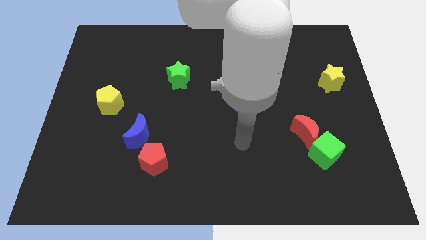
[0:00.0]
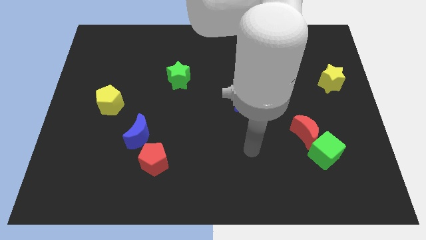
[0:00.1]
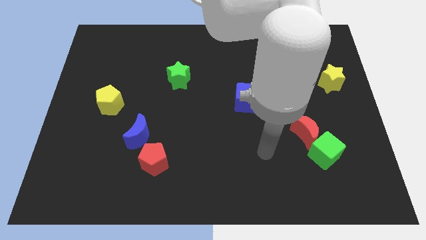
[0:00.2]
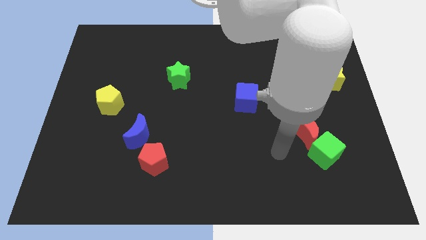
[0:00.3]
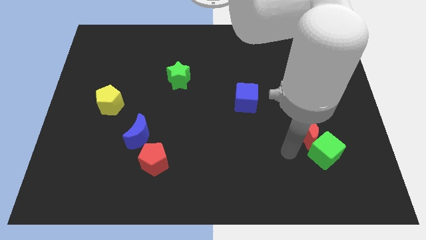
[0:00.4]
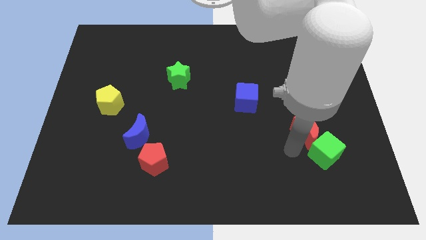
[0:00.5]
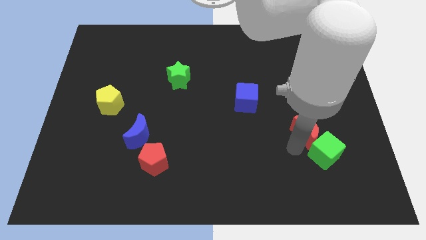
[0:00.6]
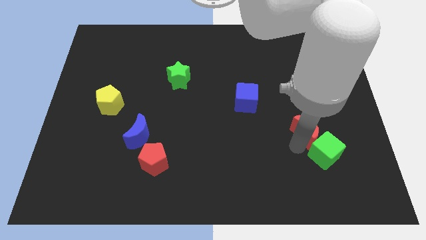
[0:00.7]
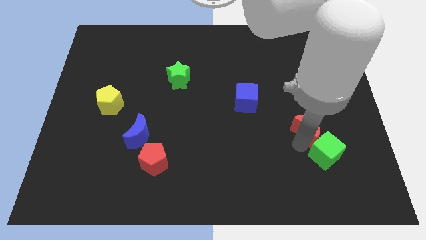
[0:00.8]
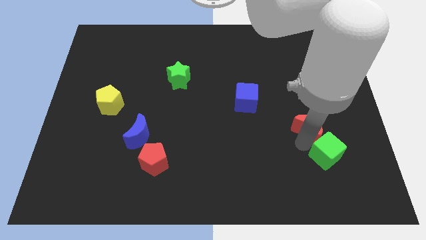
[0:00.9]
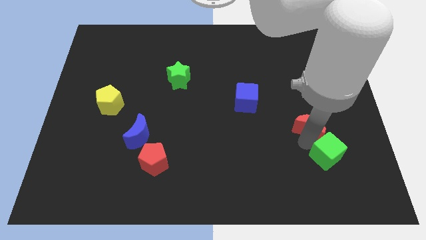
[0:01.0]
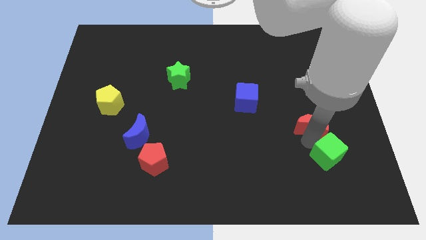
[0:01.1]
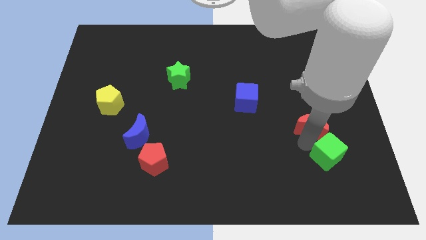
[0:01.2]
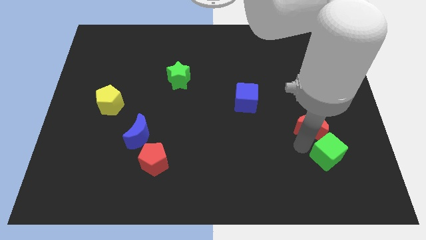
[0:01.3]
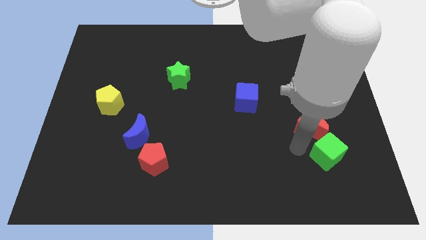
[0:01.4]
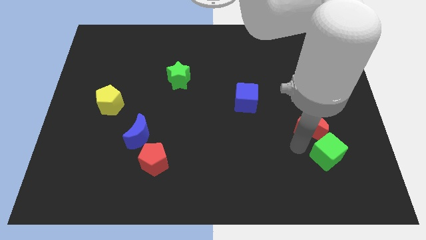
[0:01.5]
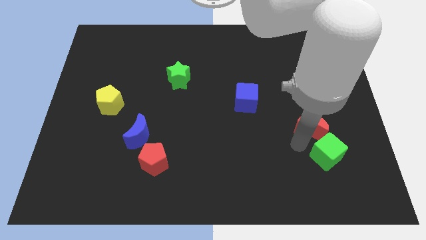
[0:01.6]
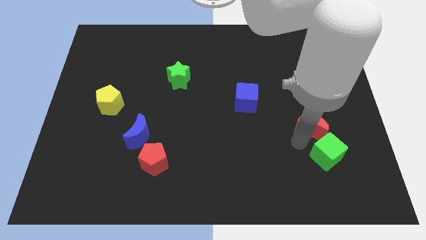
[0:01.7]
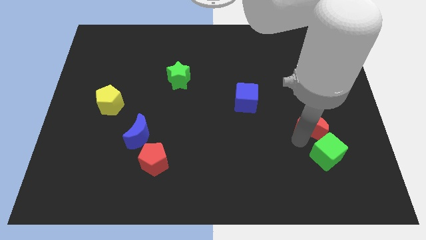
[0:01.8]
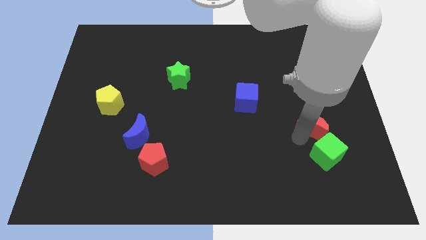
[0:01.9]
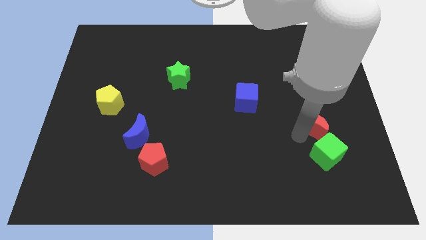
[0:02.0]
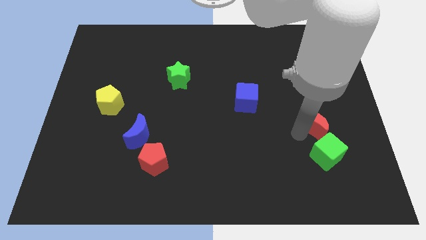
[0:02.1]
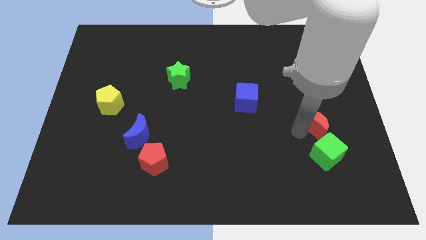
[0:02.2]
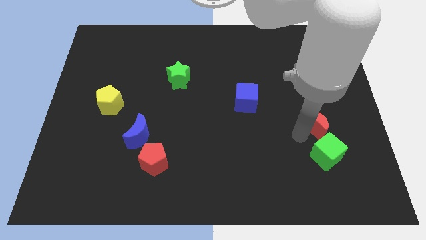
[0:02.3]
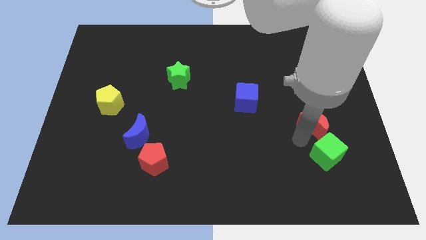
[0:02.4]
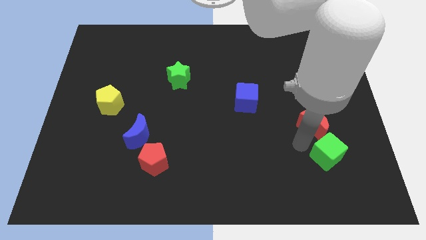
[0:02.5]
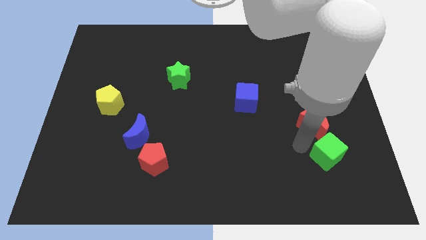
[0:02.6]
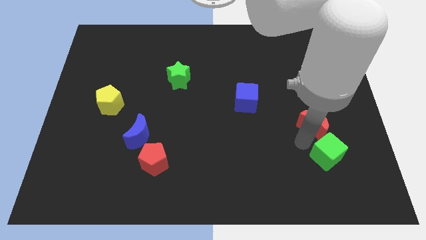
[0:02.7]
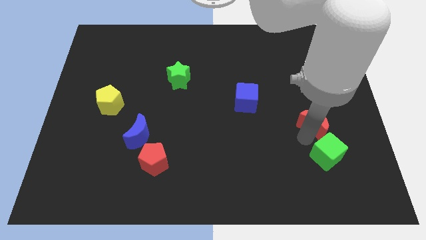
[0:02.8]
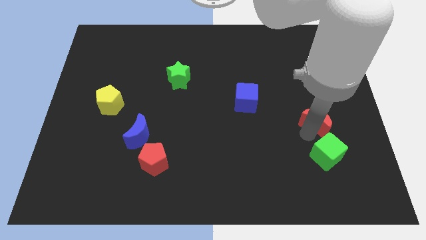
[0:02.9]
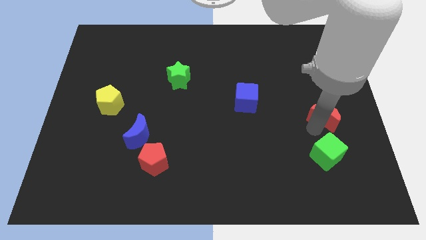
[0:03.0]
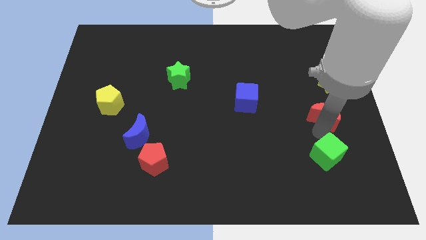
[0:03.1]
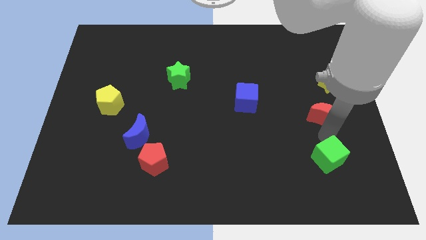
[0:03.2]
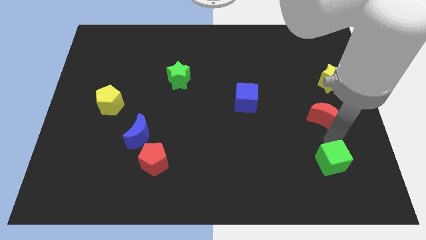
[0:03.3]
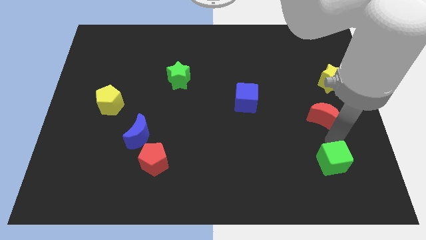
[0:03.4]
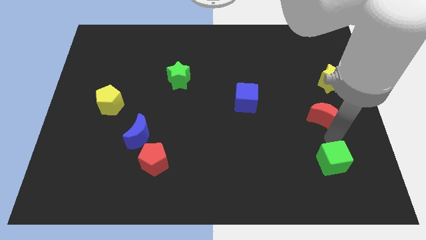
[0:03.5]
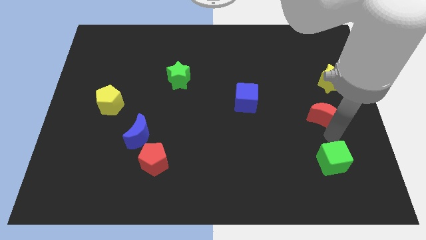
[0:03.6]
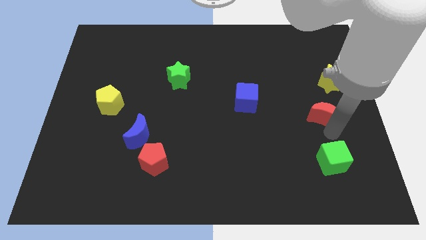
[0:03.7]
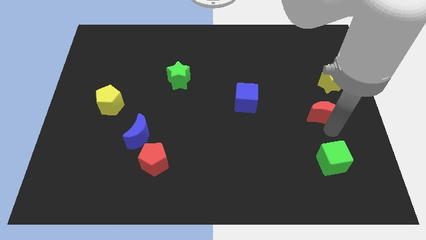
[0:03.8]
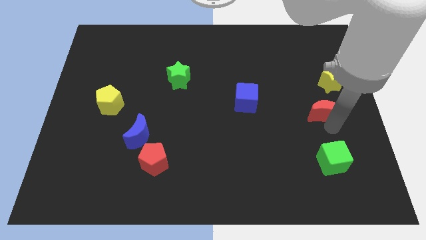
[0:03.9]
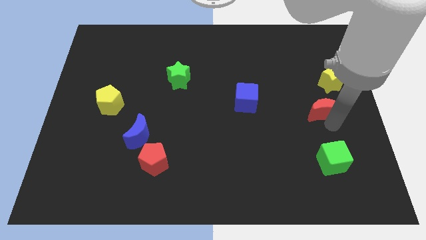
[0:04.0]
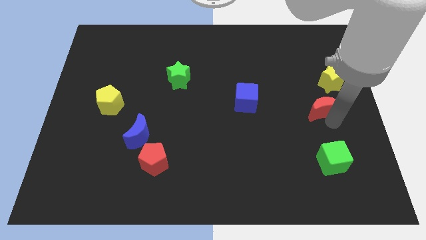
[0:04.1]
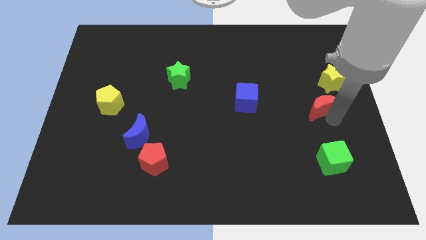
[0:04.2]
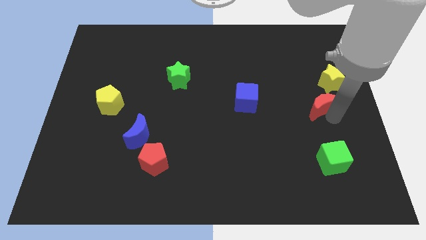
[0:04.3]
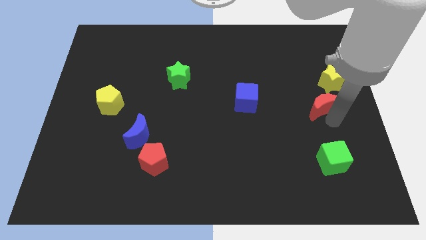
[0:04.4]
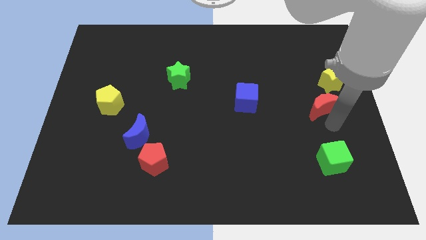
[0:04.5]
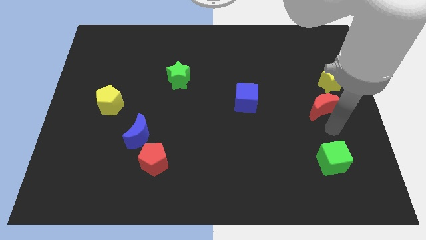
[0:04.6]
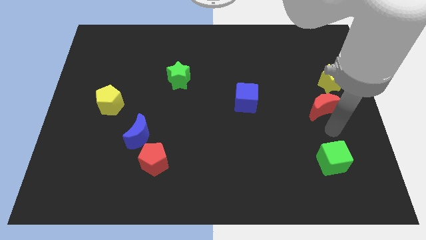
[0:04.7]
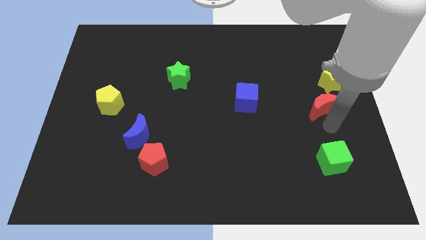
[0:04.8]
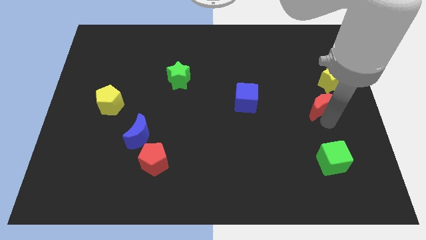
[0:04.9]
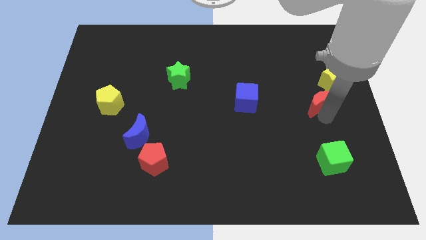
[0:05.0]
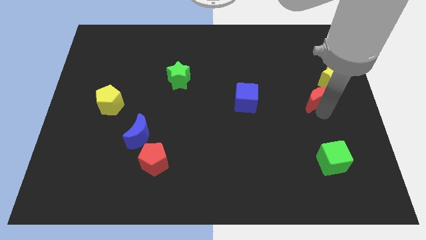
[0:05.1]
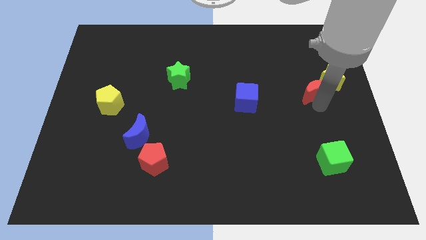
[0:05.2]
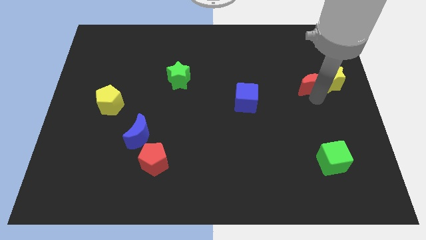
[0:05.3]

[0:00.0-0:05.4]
put the red moon to the top left side of the yellow star

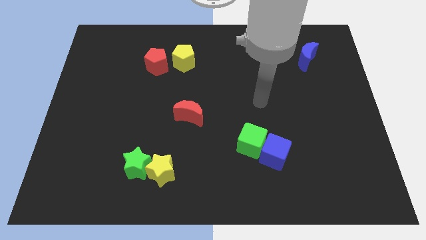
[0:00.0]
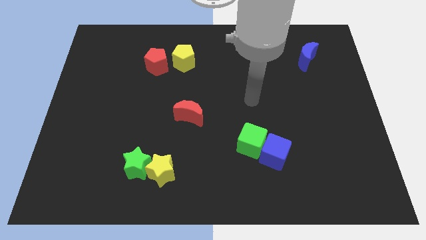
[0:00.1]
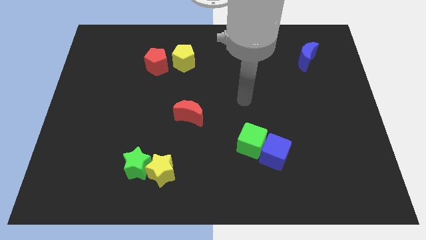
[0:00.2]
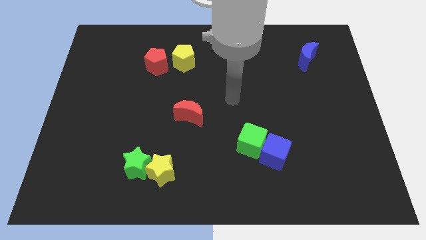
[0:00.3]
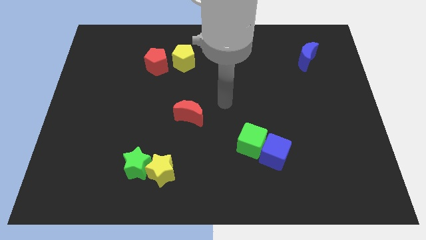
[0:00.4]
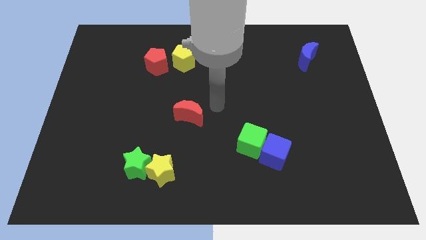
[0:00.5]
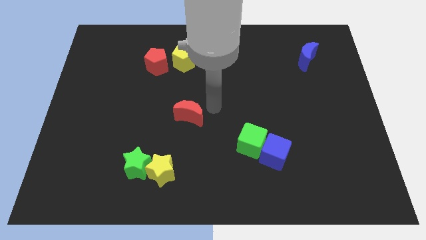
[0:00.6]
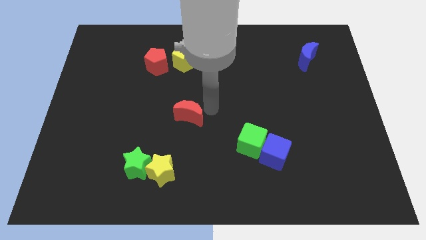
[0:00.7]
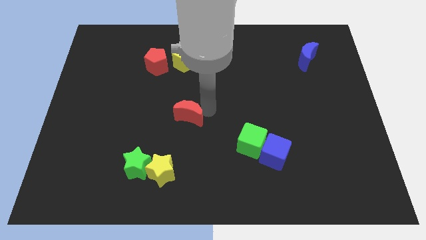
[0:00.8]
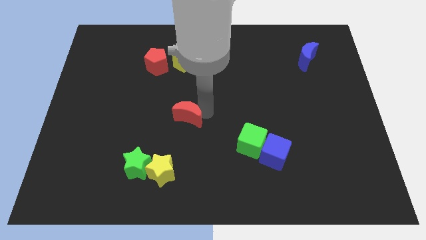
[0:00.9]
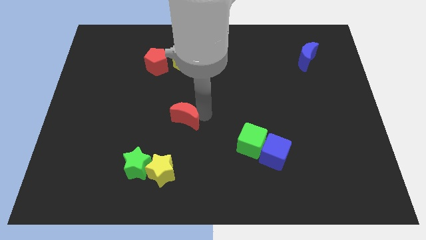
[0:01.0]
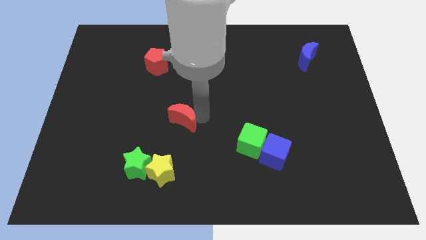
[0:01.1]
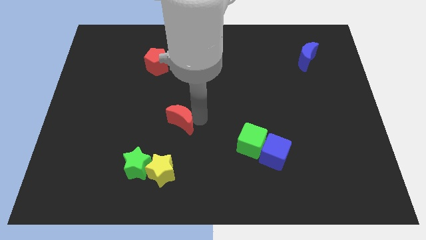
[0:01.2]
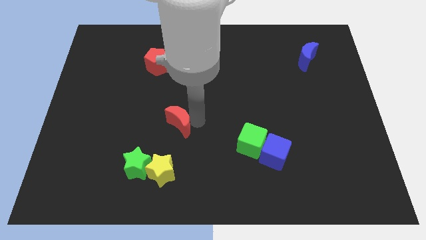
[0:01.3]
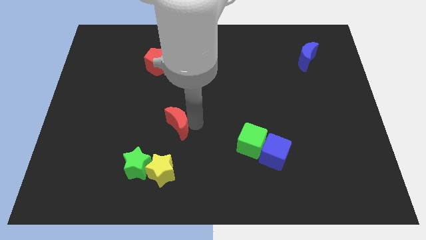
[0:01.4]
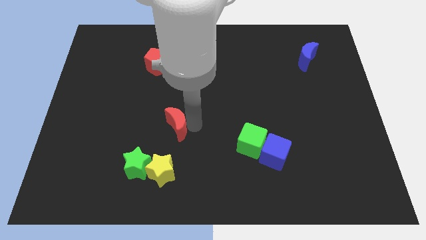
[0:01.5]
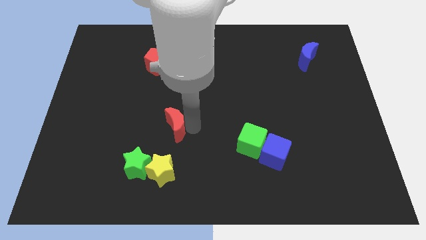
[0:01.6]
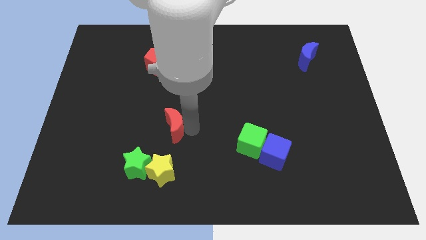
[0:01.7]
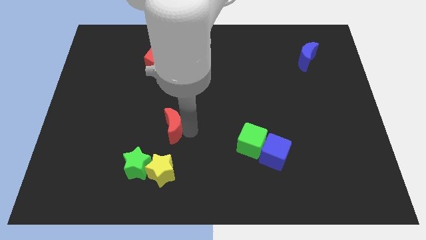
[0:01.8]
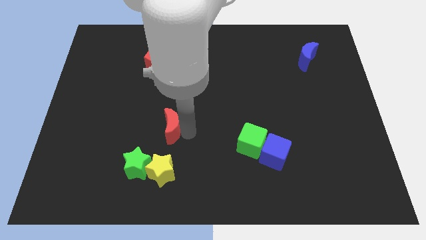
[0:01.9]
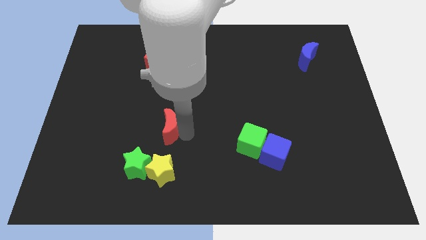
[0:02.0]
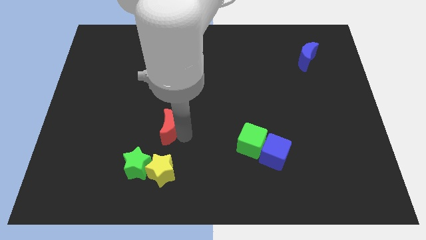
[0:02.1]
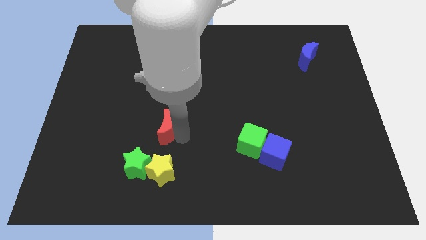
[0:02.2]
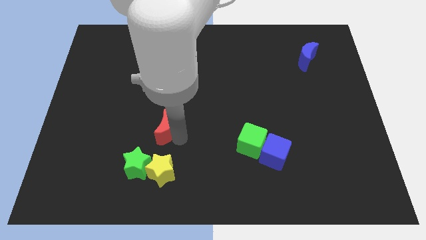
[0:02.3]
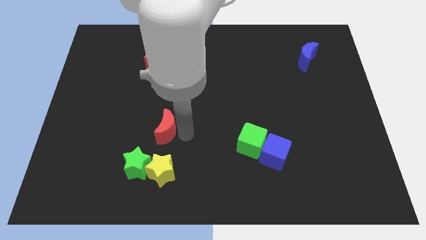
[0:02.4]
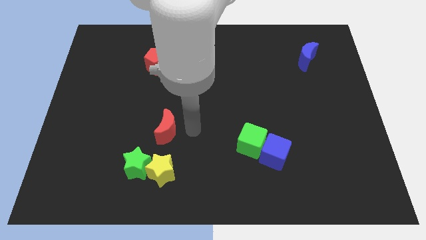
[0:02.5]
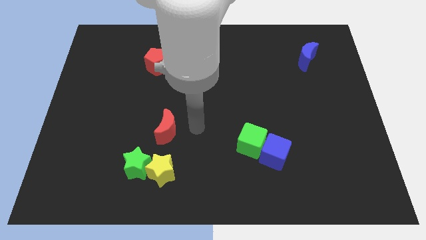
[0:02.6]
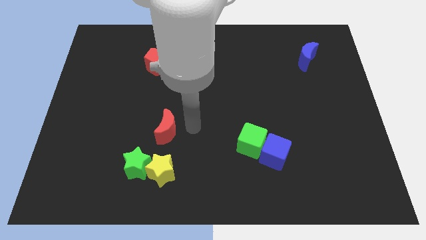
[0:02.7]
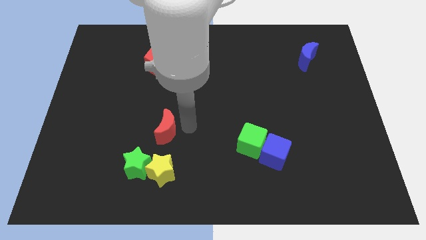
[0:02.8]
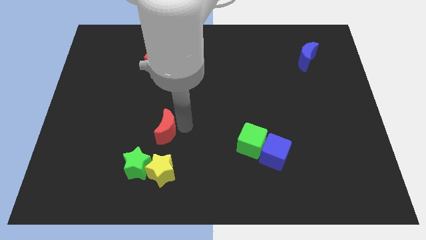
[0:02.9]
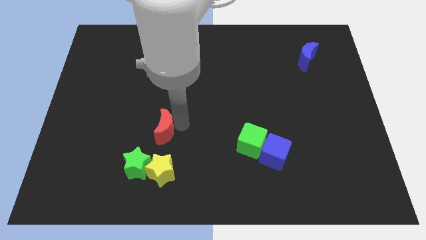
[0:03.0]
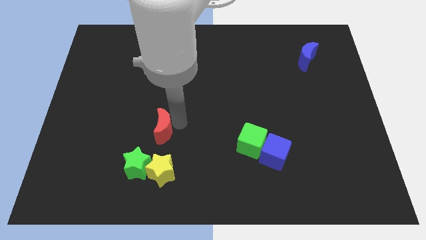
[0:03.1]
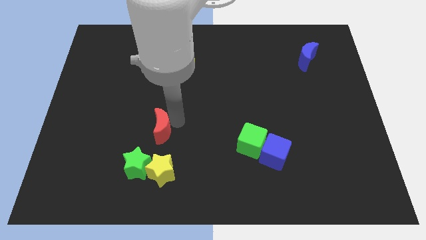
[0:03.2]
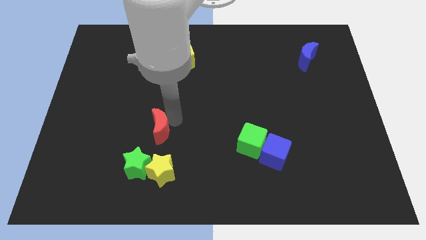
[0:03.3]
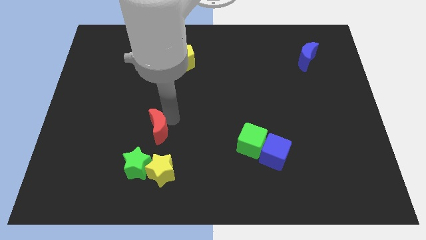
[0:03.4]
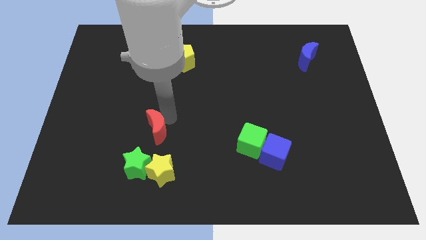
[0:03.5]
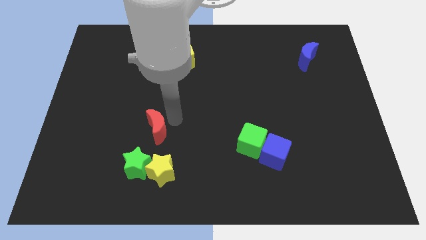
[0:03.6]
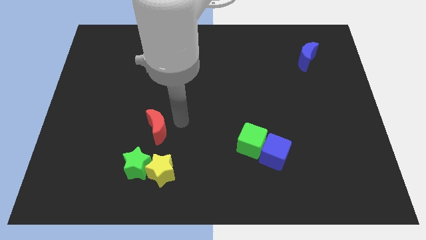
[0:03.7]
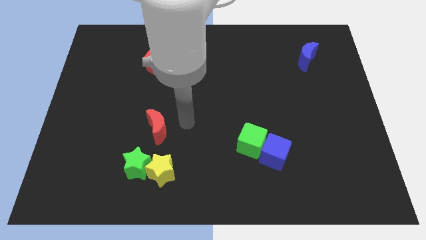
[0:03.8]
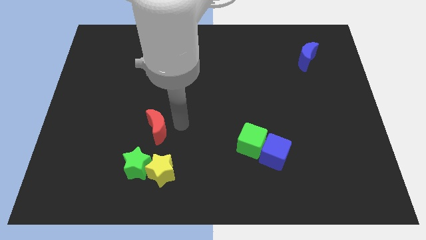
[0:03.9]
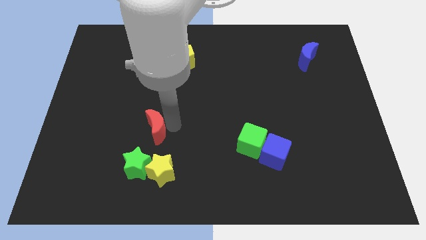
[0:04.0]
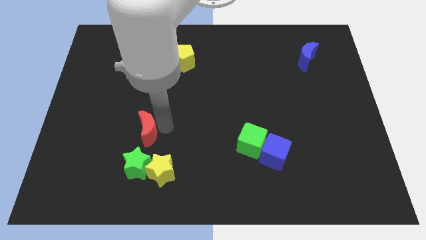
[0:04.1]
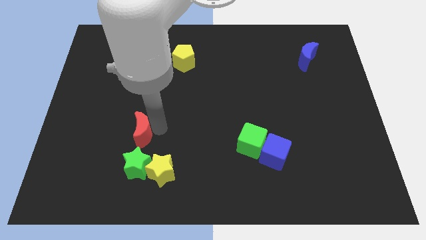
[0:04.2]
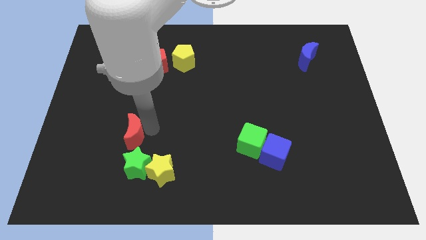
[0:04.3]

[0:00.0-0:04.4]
push the red moon diagonally up and to the left of the green star
